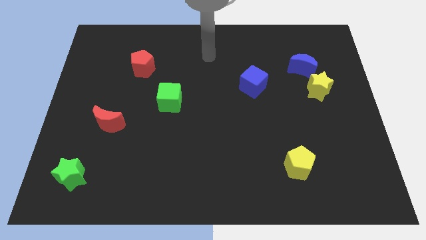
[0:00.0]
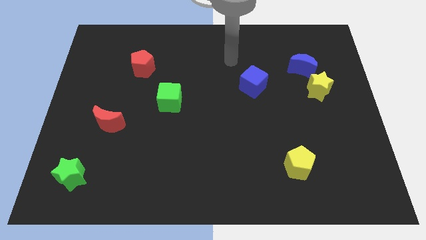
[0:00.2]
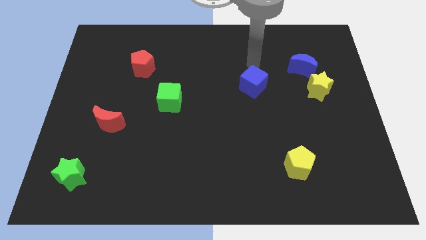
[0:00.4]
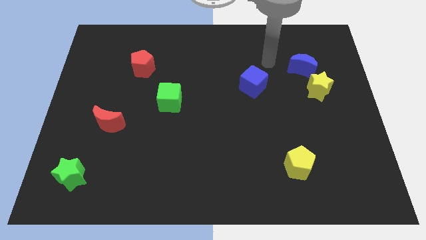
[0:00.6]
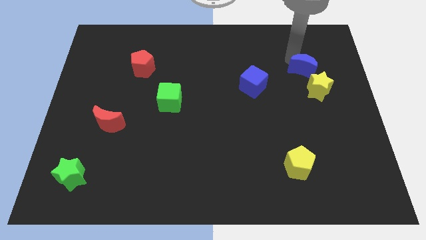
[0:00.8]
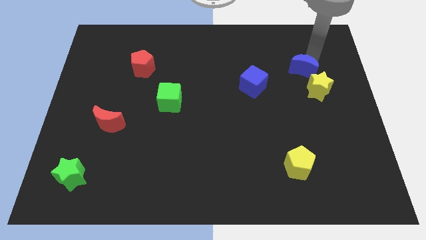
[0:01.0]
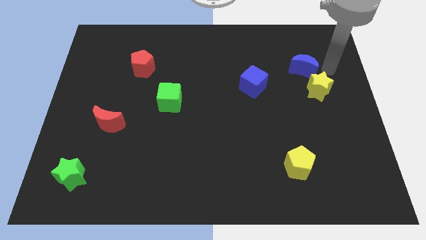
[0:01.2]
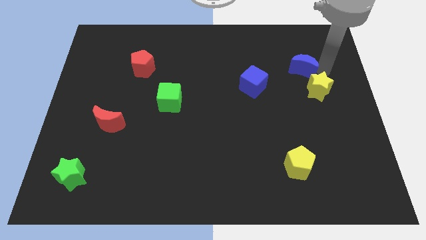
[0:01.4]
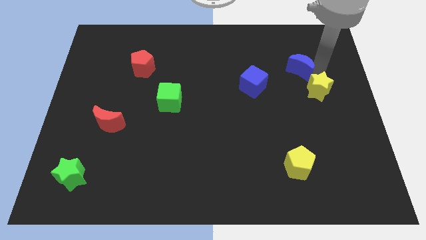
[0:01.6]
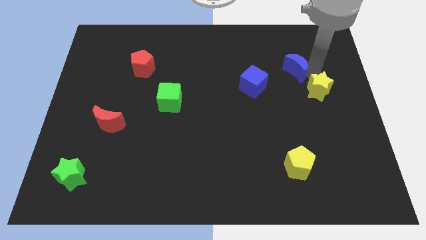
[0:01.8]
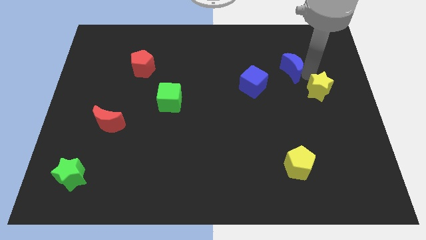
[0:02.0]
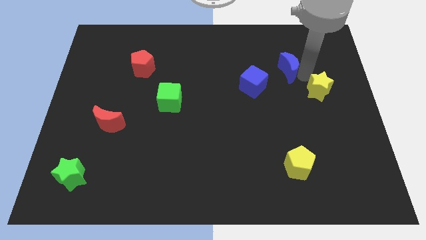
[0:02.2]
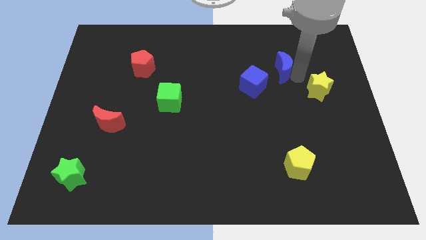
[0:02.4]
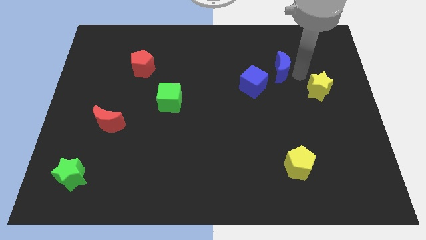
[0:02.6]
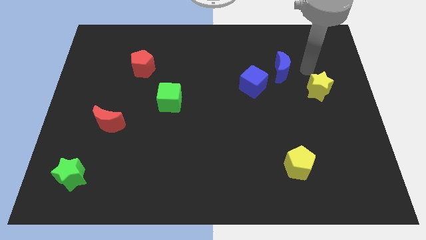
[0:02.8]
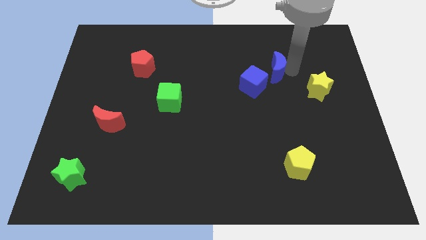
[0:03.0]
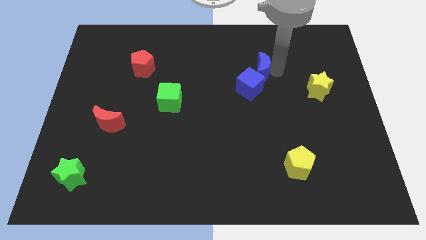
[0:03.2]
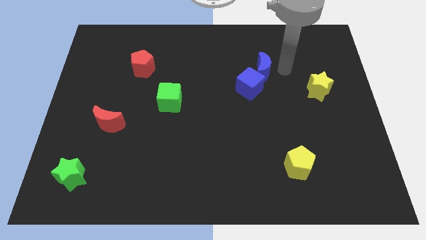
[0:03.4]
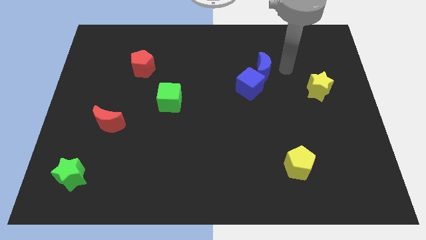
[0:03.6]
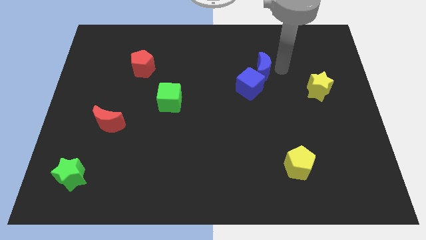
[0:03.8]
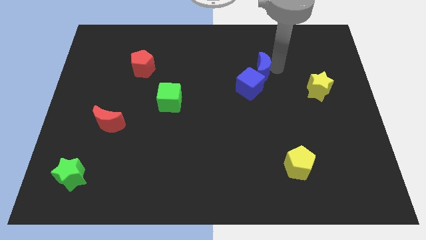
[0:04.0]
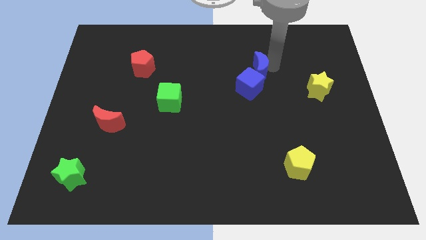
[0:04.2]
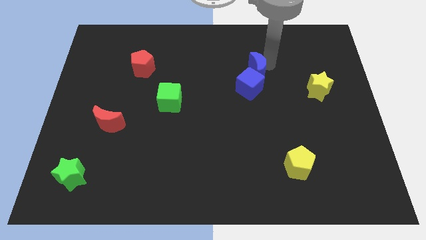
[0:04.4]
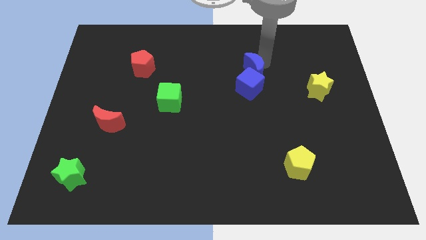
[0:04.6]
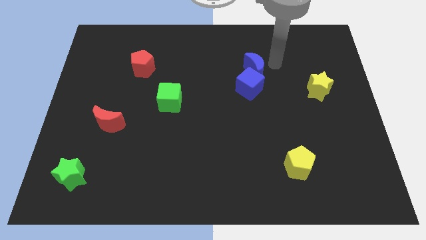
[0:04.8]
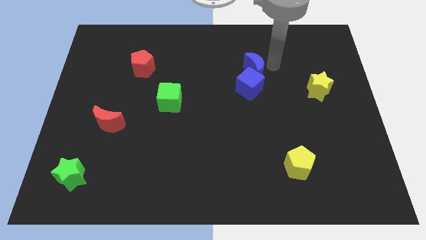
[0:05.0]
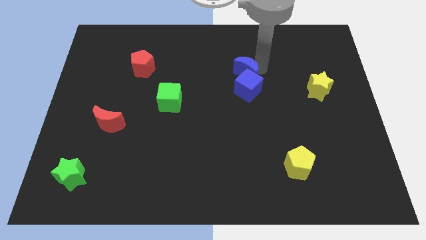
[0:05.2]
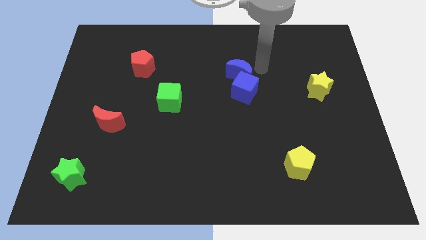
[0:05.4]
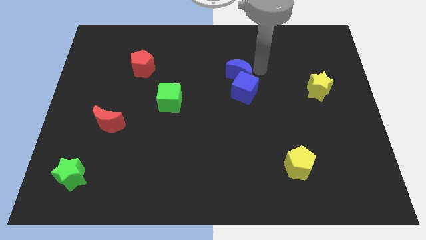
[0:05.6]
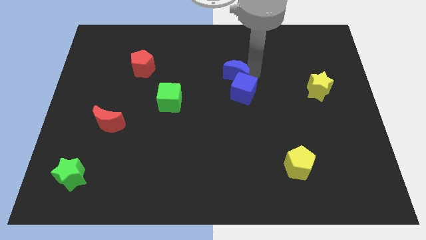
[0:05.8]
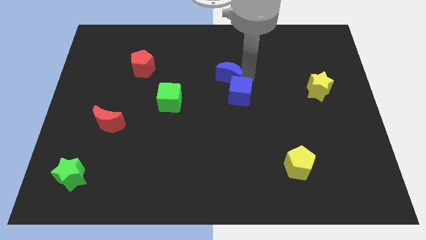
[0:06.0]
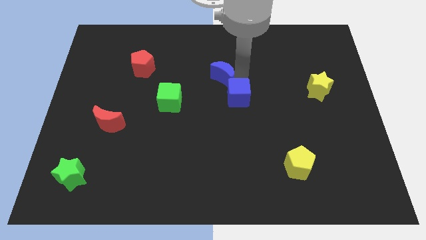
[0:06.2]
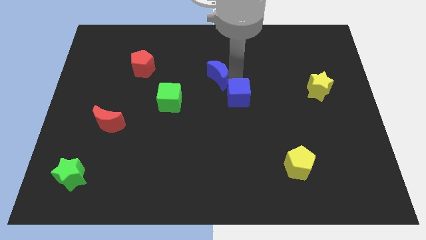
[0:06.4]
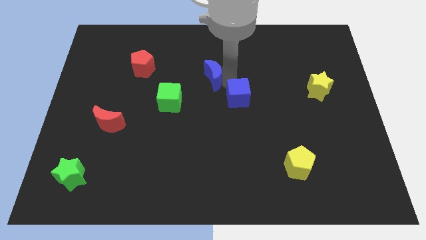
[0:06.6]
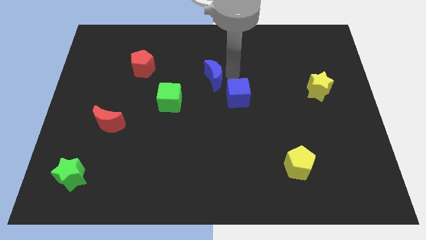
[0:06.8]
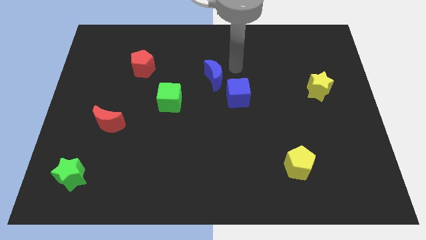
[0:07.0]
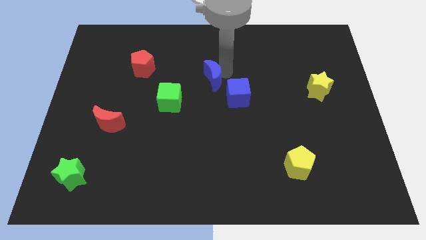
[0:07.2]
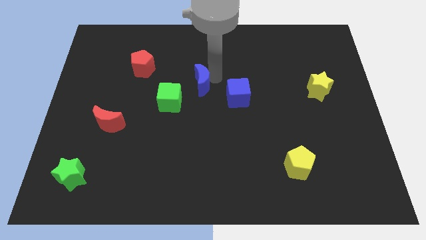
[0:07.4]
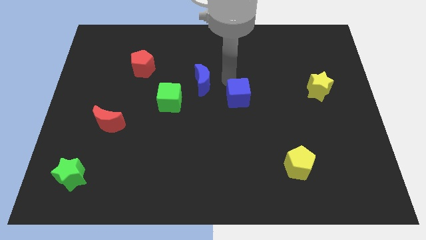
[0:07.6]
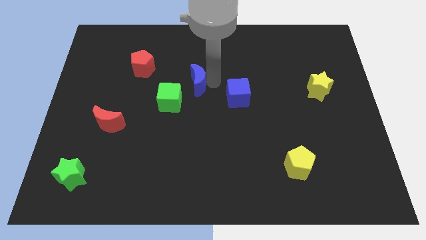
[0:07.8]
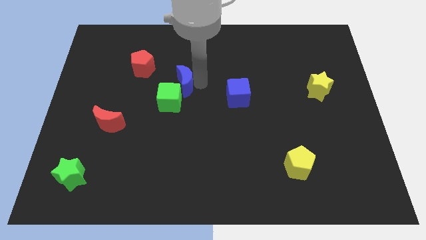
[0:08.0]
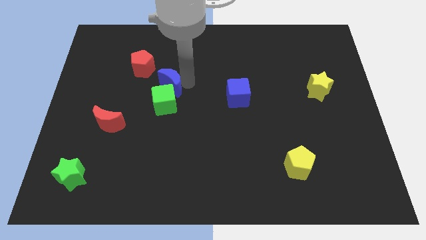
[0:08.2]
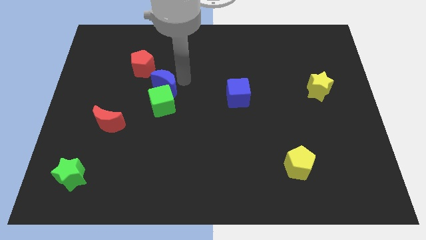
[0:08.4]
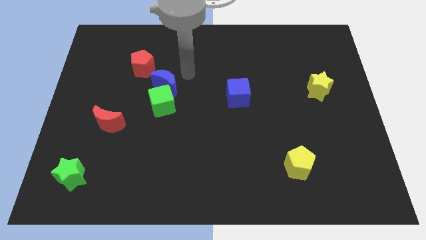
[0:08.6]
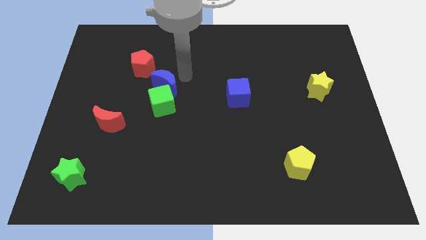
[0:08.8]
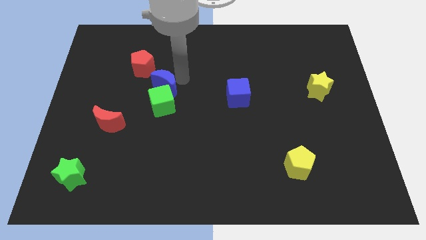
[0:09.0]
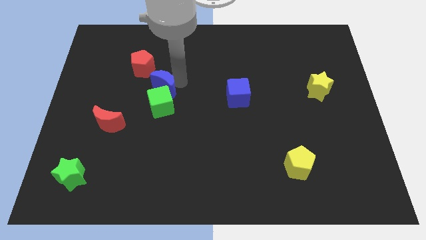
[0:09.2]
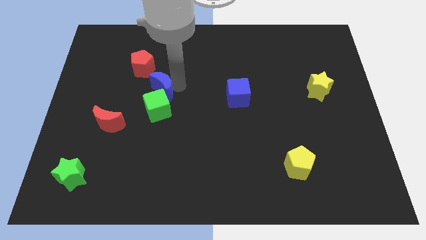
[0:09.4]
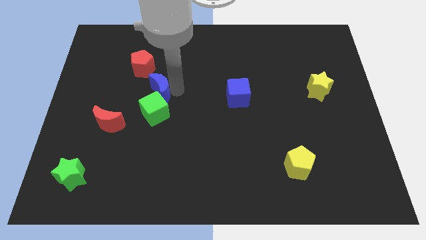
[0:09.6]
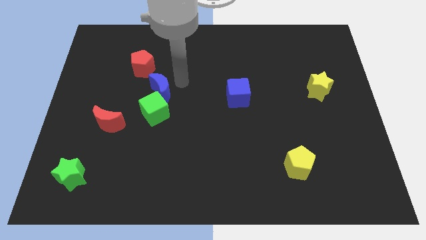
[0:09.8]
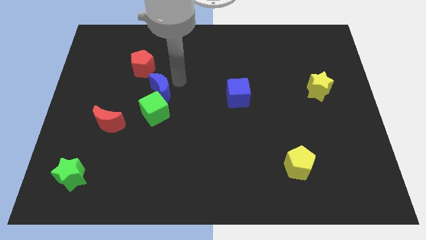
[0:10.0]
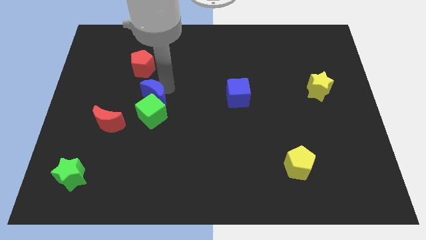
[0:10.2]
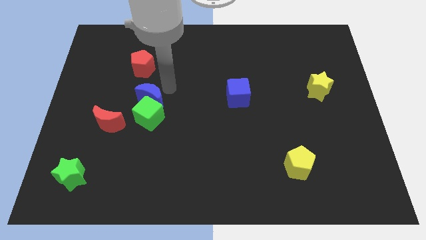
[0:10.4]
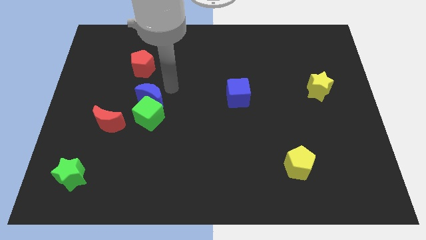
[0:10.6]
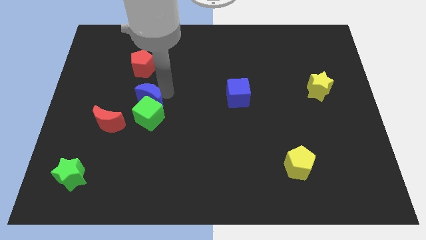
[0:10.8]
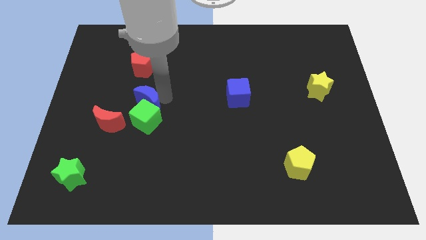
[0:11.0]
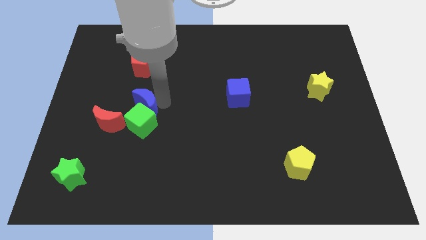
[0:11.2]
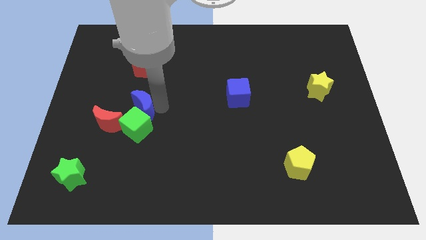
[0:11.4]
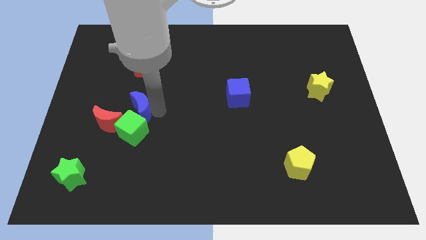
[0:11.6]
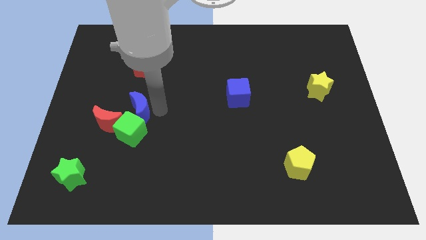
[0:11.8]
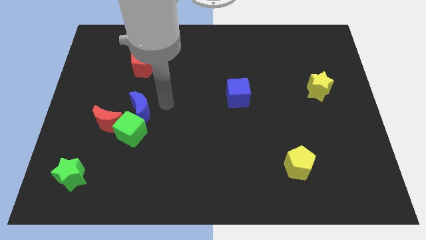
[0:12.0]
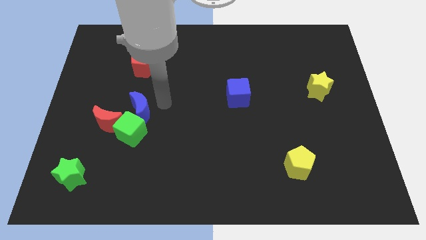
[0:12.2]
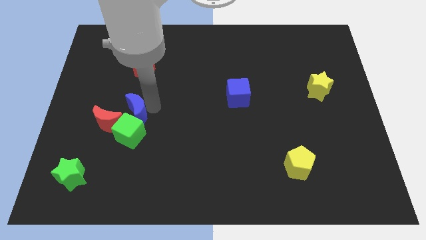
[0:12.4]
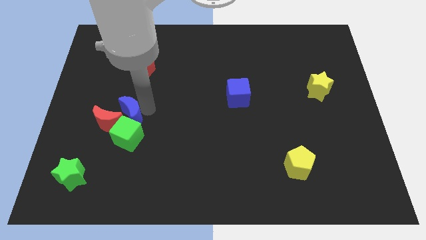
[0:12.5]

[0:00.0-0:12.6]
put the blue moon next to the red moon
